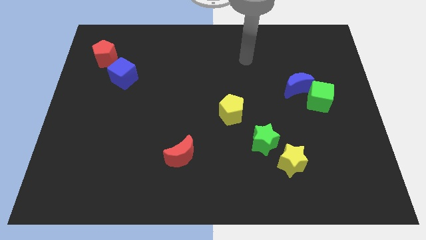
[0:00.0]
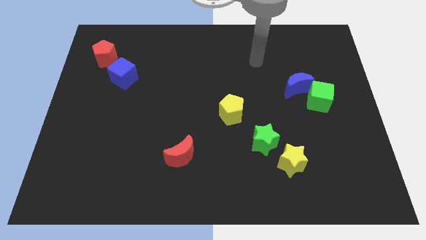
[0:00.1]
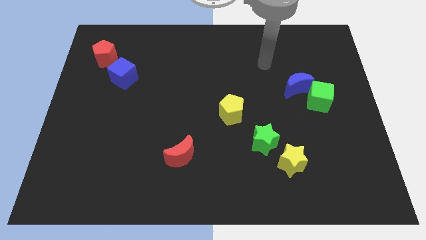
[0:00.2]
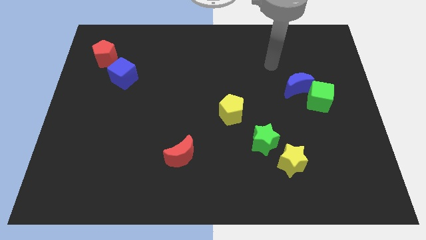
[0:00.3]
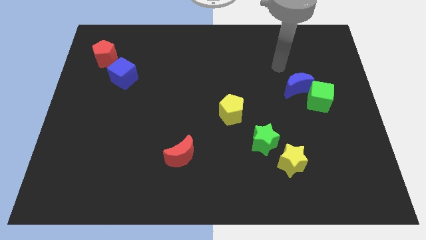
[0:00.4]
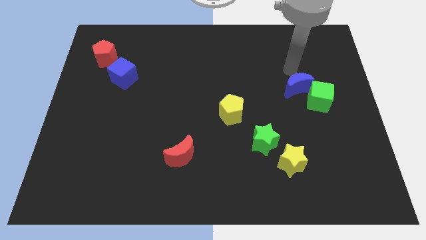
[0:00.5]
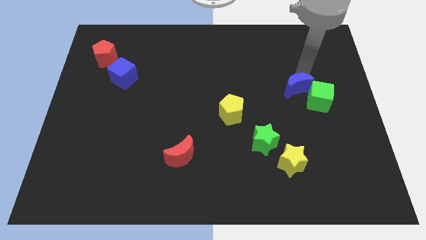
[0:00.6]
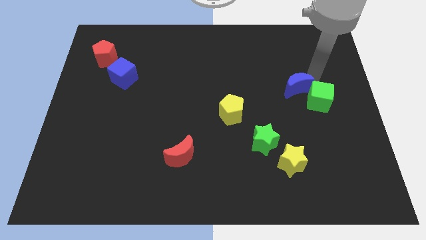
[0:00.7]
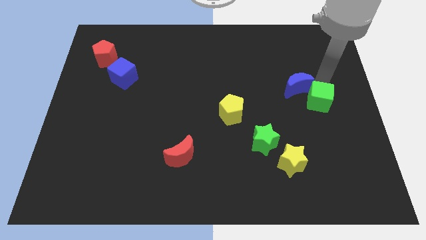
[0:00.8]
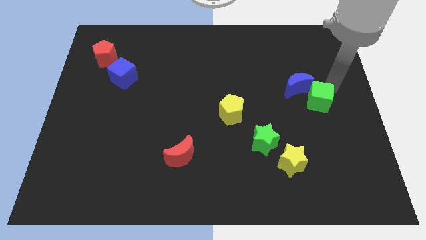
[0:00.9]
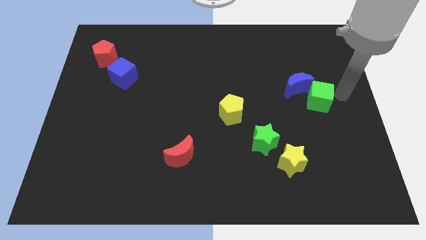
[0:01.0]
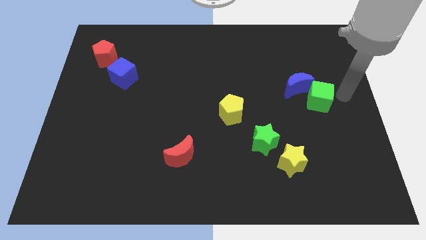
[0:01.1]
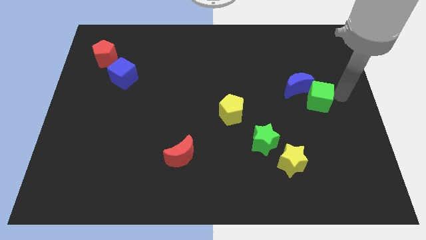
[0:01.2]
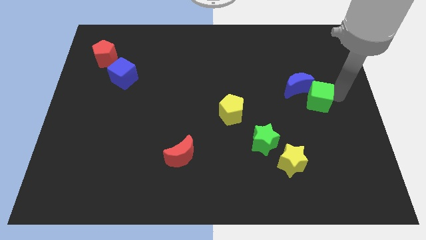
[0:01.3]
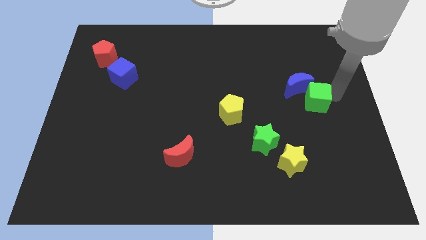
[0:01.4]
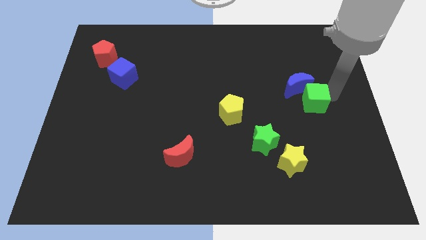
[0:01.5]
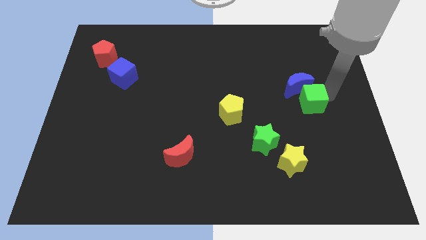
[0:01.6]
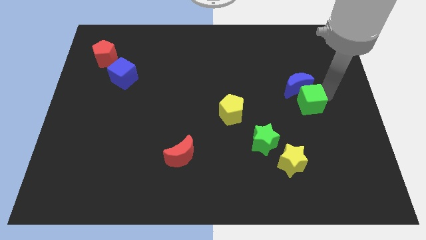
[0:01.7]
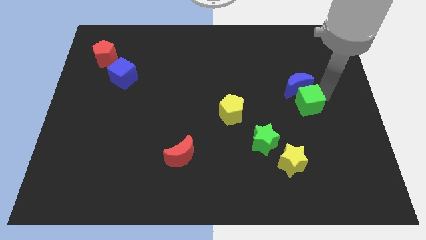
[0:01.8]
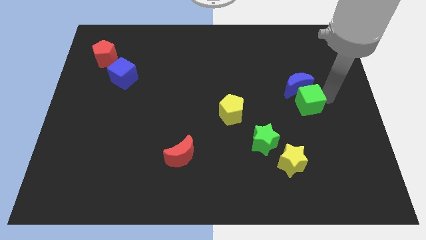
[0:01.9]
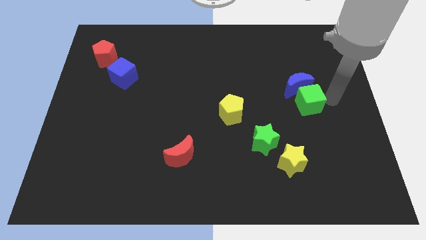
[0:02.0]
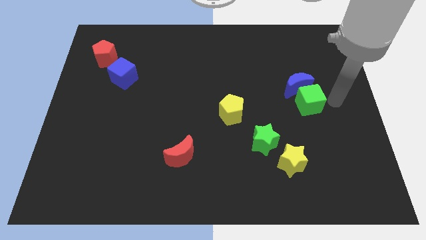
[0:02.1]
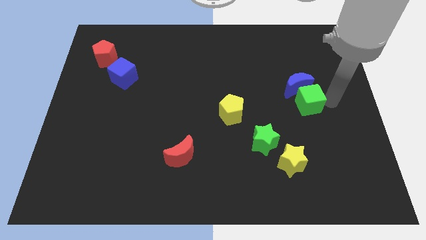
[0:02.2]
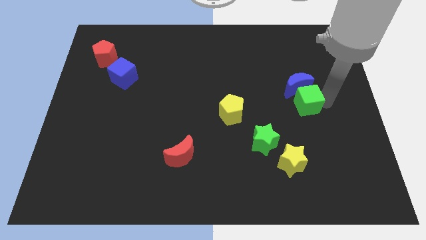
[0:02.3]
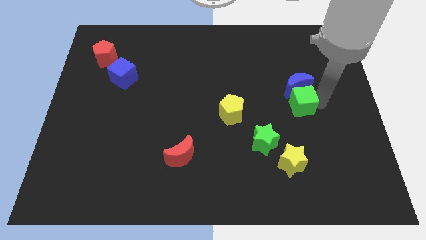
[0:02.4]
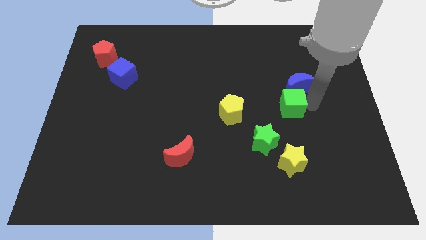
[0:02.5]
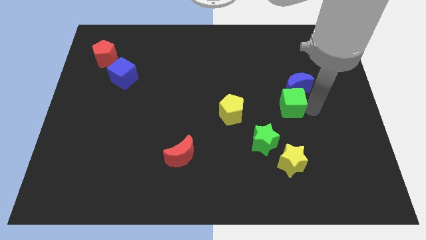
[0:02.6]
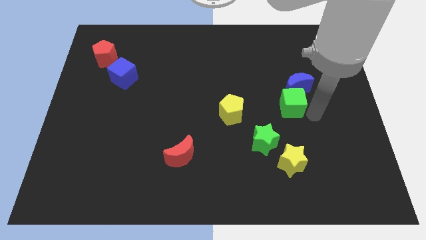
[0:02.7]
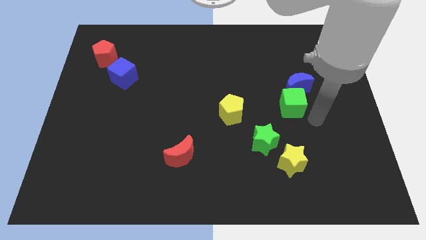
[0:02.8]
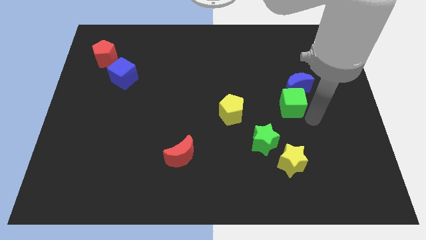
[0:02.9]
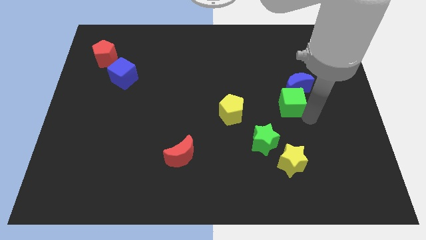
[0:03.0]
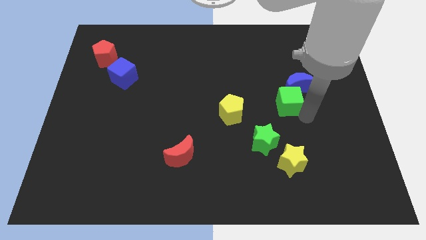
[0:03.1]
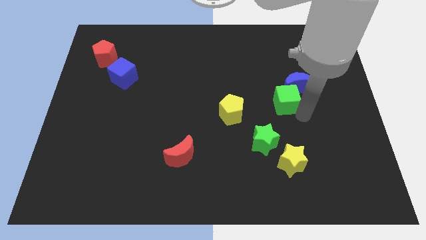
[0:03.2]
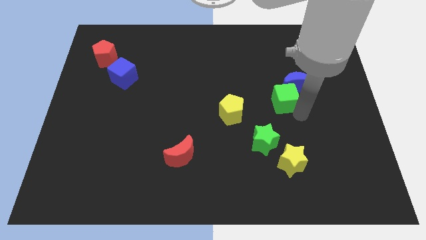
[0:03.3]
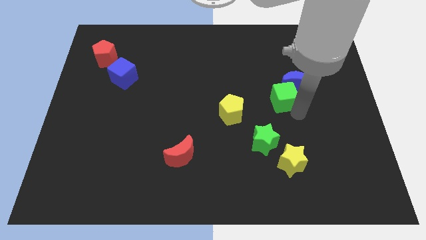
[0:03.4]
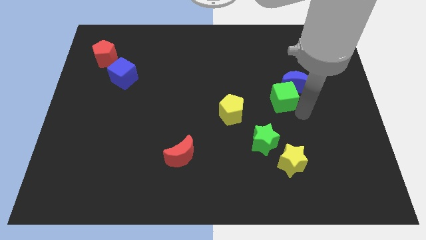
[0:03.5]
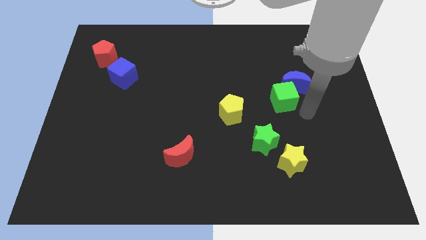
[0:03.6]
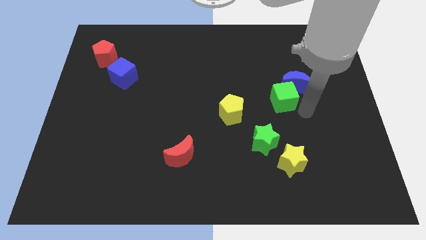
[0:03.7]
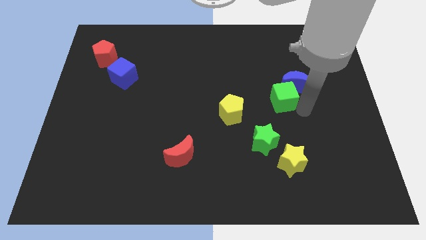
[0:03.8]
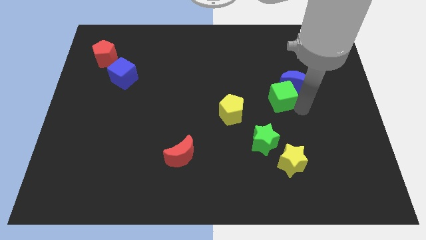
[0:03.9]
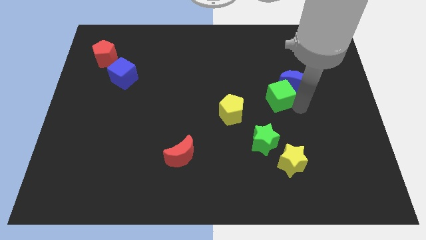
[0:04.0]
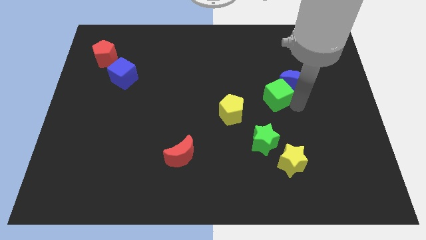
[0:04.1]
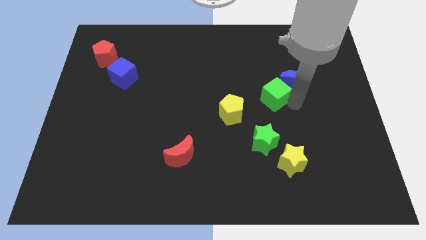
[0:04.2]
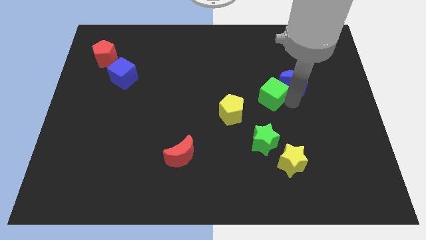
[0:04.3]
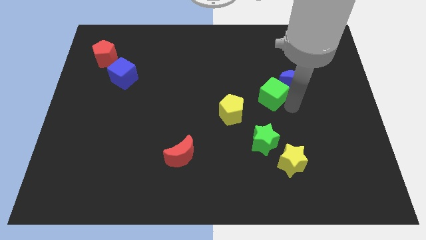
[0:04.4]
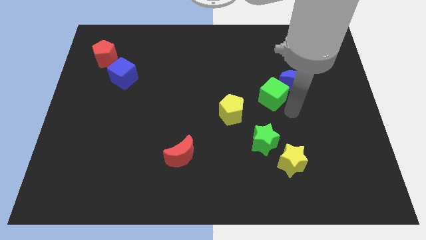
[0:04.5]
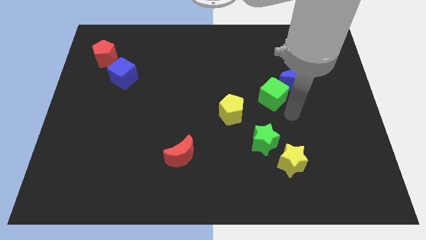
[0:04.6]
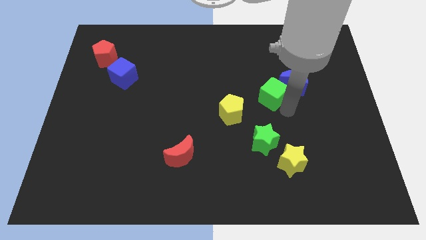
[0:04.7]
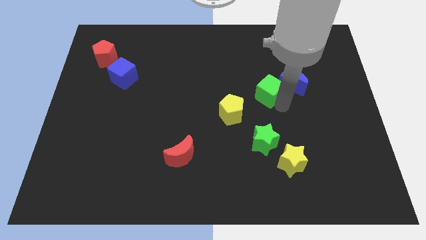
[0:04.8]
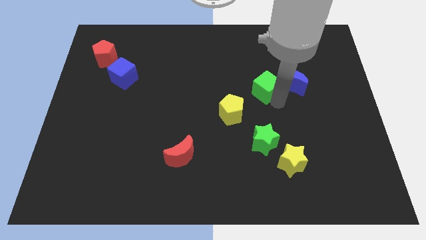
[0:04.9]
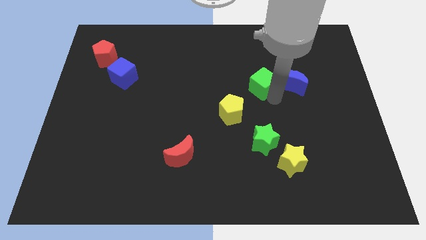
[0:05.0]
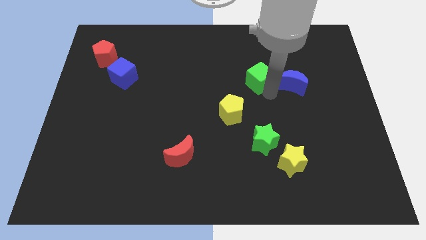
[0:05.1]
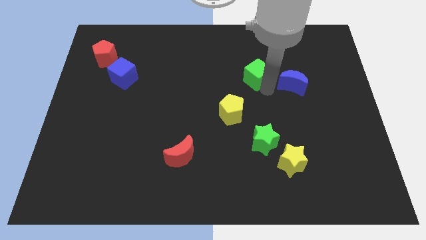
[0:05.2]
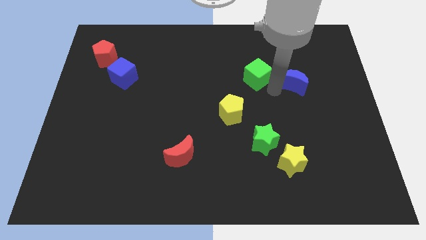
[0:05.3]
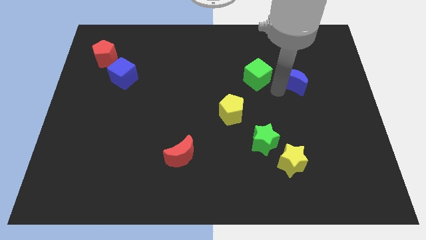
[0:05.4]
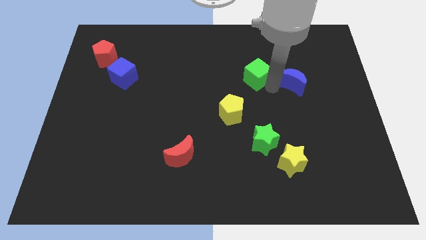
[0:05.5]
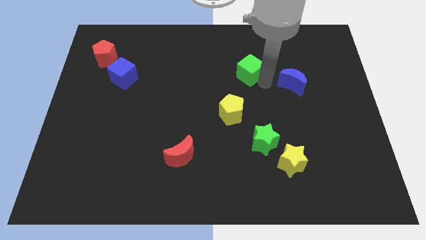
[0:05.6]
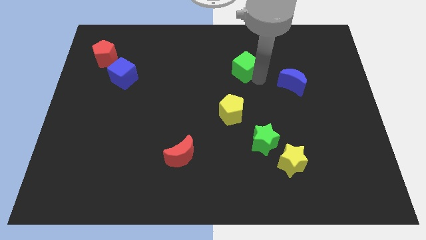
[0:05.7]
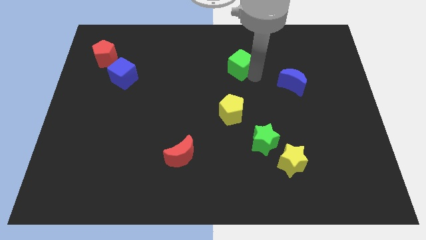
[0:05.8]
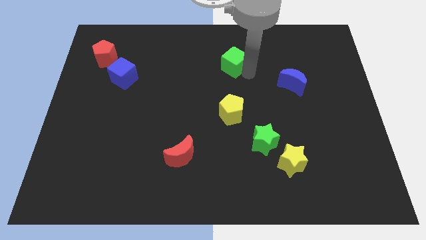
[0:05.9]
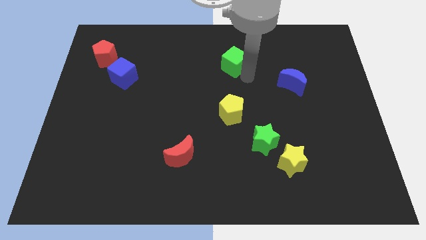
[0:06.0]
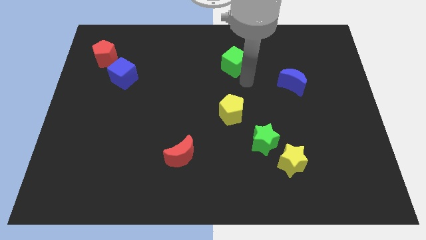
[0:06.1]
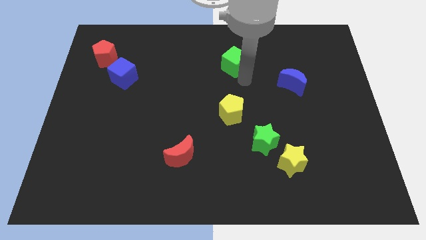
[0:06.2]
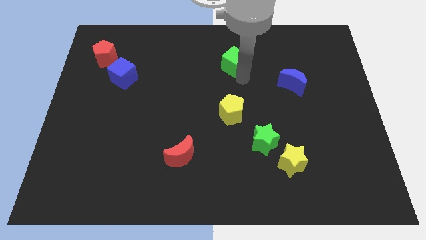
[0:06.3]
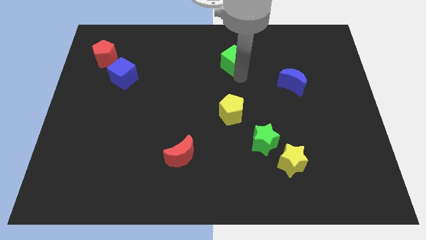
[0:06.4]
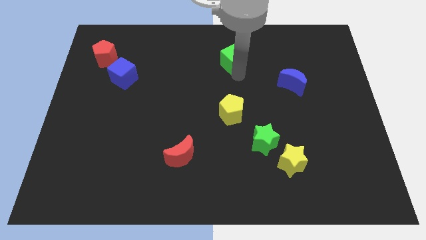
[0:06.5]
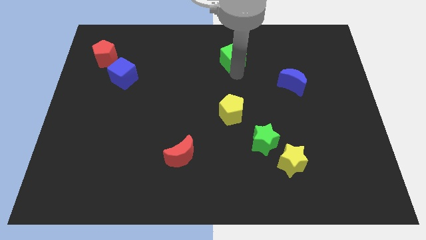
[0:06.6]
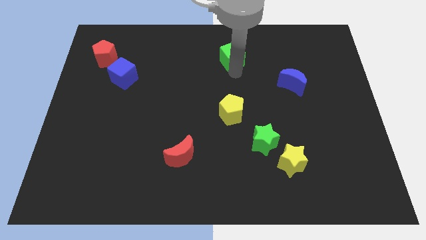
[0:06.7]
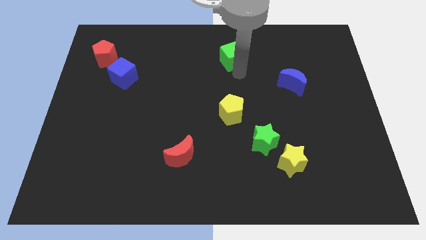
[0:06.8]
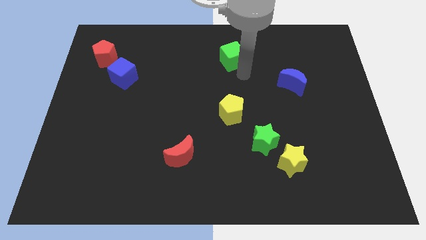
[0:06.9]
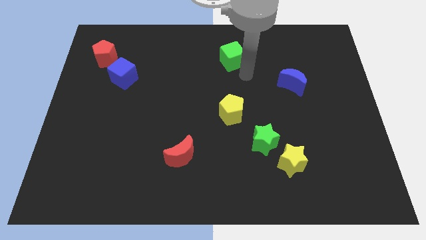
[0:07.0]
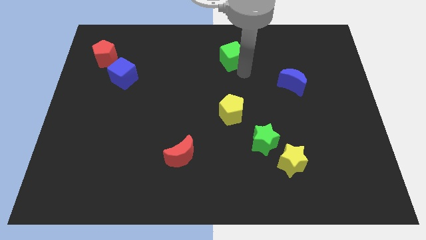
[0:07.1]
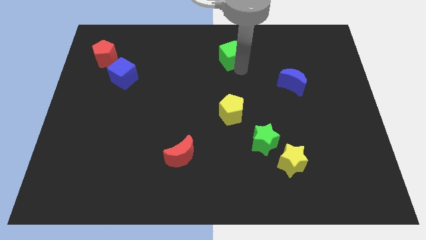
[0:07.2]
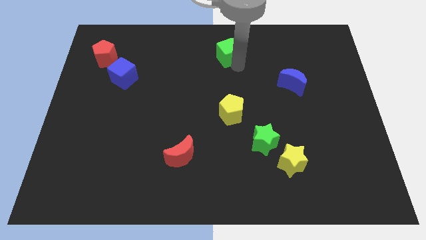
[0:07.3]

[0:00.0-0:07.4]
slide the green cube to the top
